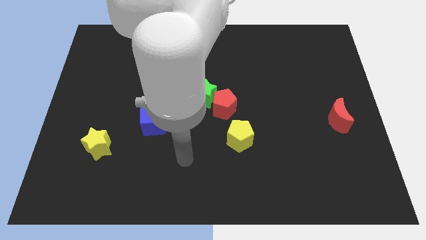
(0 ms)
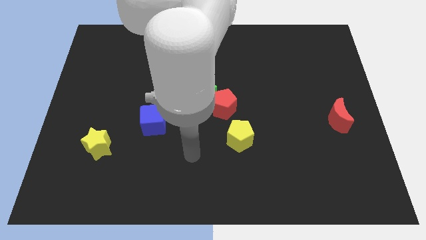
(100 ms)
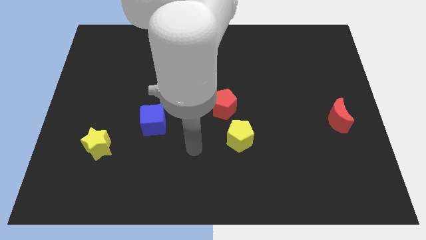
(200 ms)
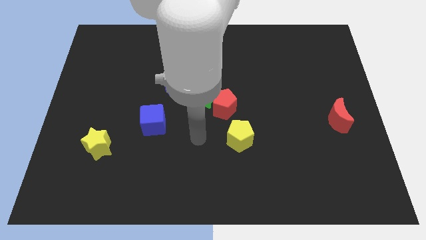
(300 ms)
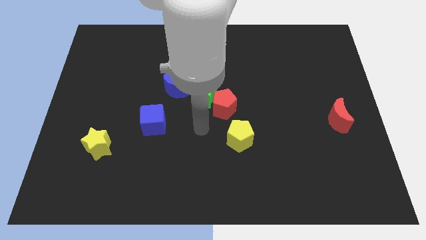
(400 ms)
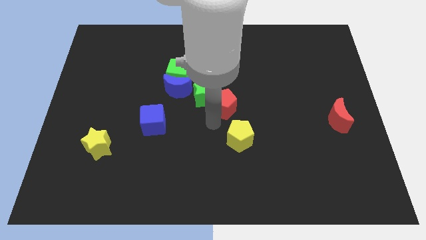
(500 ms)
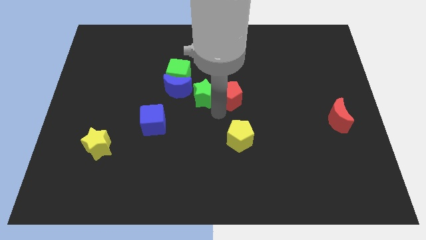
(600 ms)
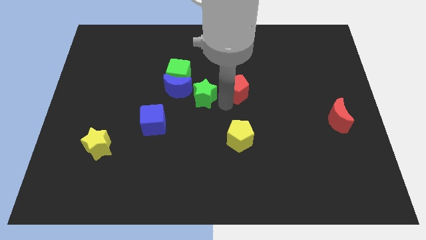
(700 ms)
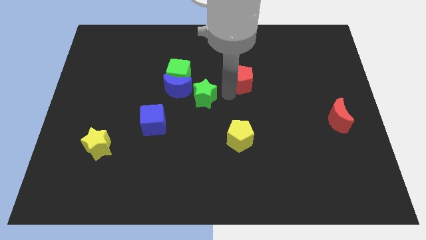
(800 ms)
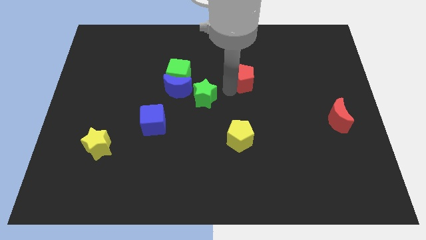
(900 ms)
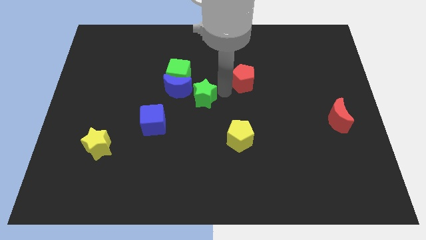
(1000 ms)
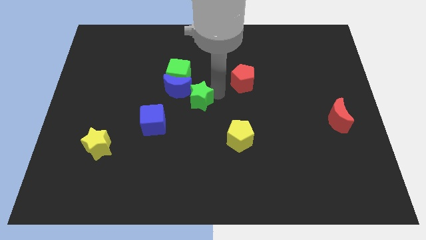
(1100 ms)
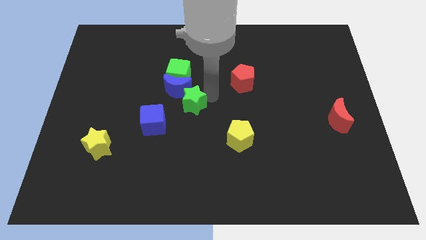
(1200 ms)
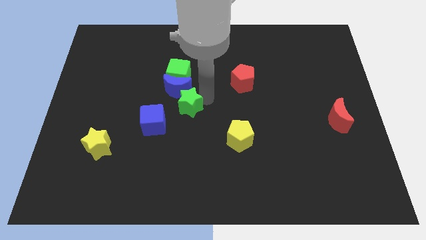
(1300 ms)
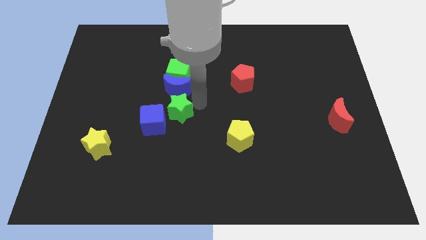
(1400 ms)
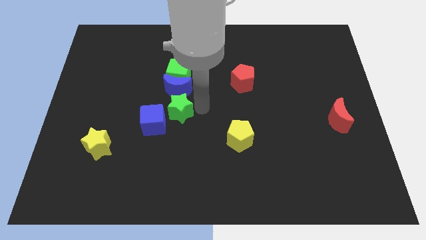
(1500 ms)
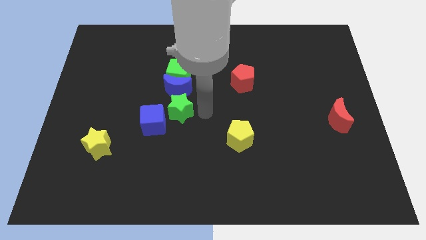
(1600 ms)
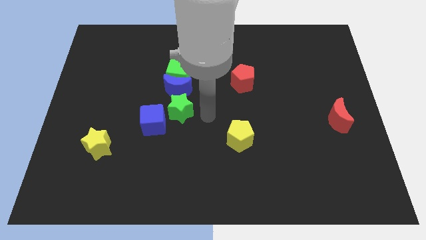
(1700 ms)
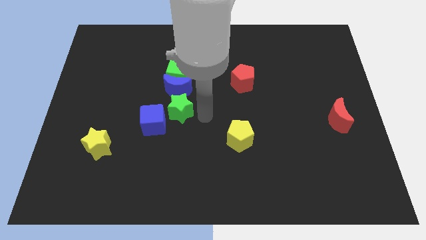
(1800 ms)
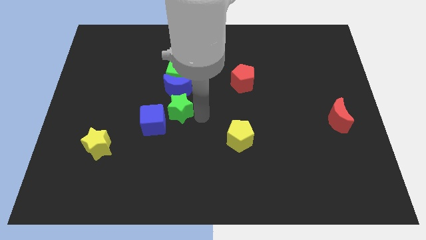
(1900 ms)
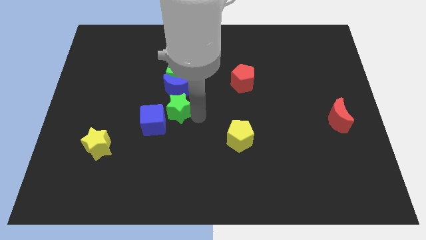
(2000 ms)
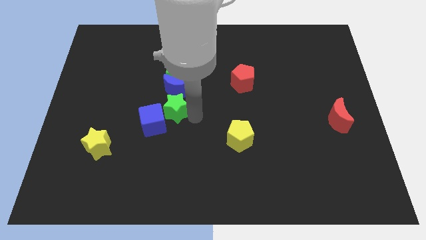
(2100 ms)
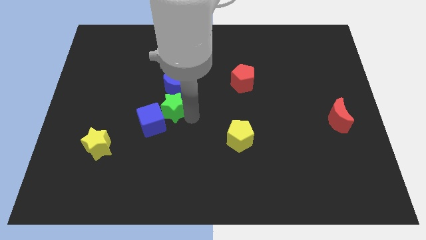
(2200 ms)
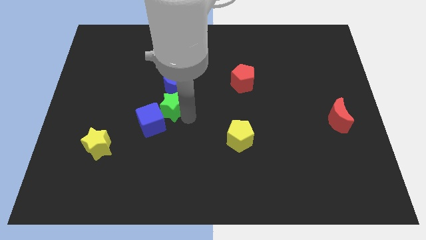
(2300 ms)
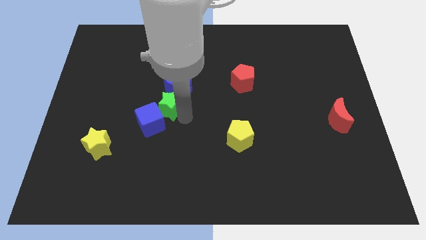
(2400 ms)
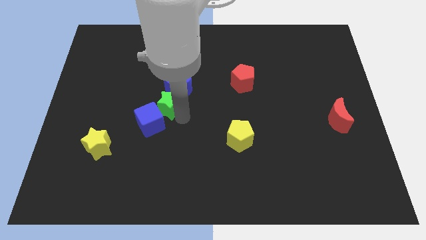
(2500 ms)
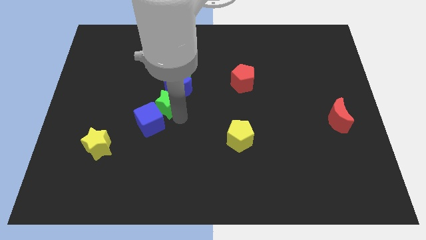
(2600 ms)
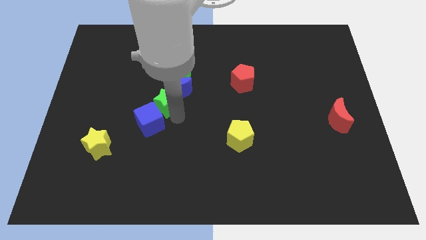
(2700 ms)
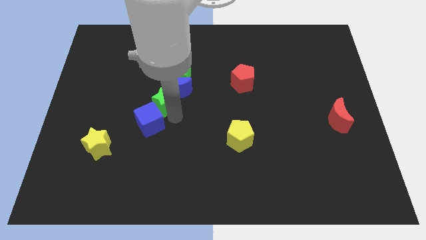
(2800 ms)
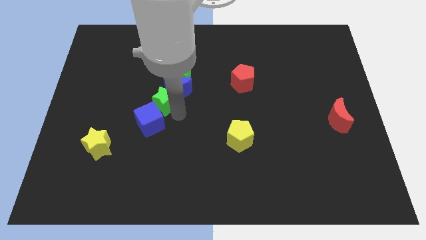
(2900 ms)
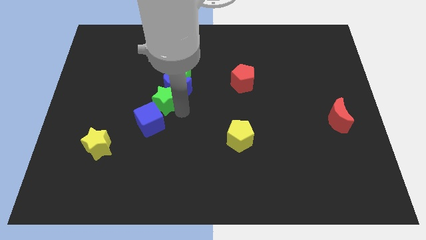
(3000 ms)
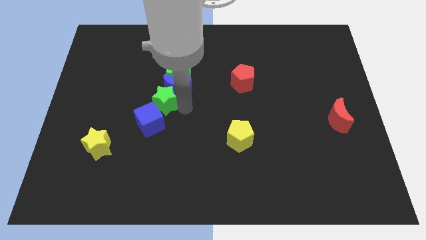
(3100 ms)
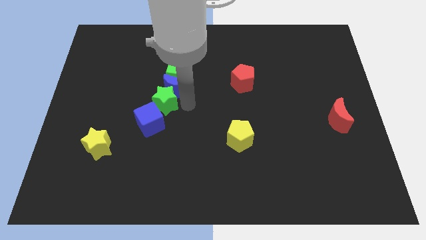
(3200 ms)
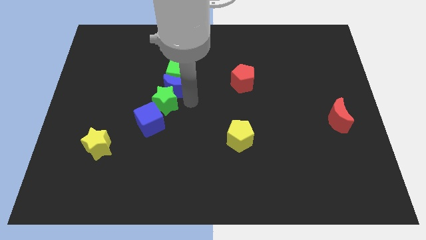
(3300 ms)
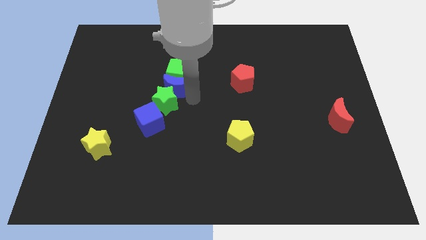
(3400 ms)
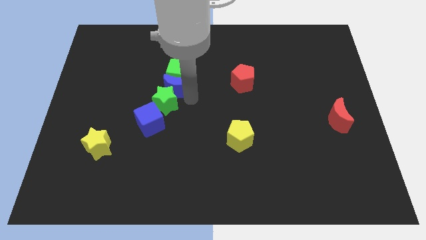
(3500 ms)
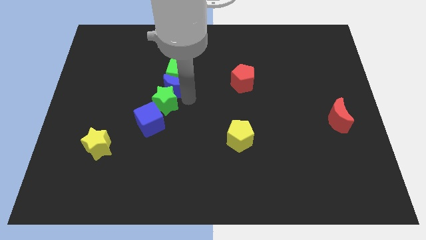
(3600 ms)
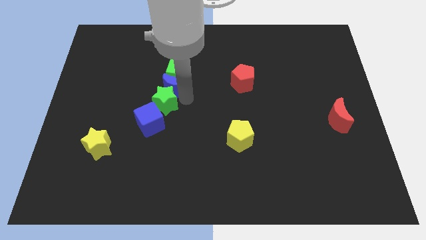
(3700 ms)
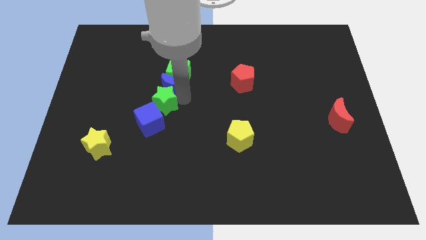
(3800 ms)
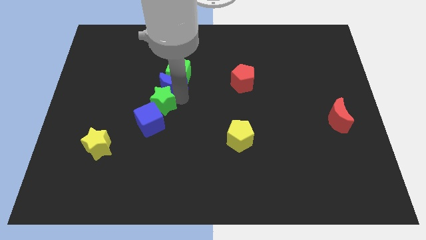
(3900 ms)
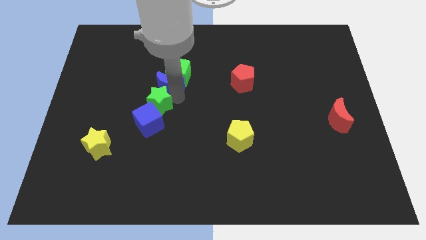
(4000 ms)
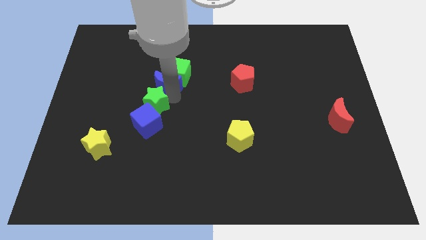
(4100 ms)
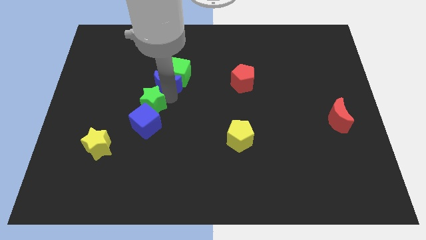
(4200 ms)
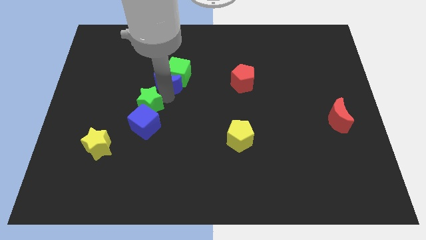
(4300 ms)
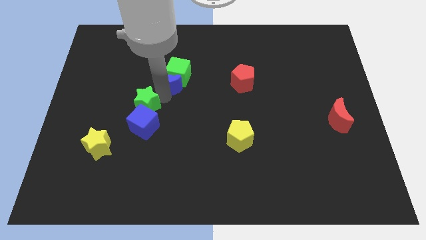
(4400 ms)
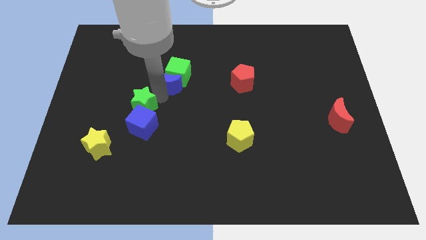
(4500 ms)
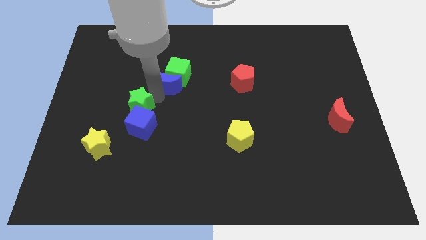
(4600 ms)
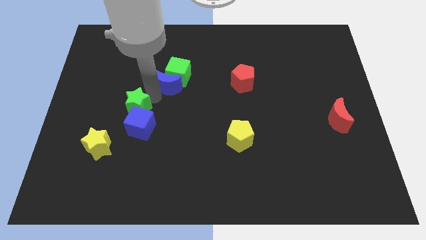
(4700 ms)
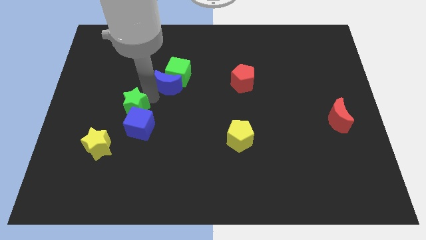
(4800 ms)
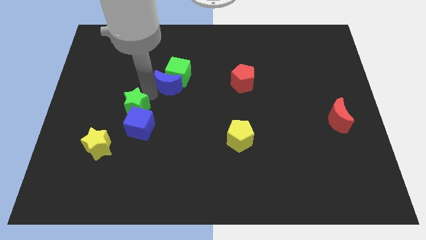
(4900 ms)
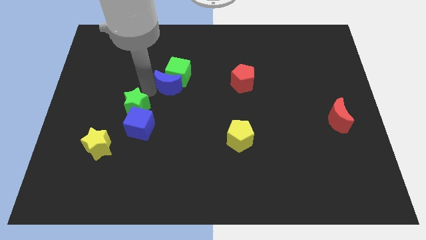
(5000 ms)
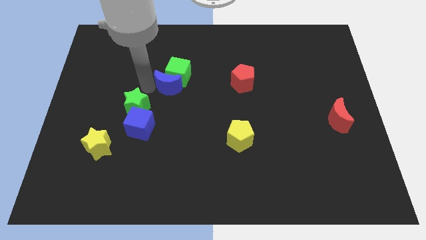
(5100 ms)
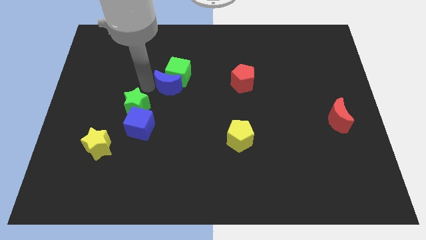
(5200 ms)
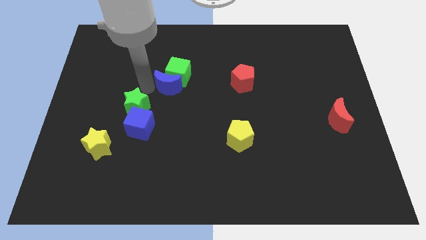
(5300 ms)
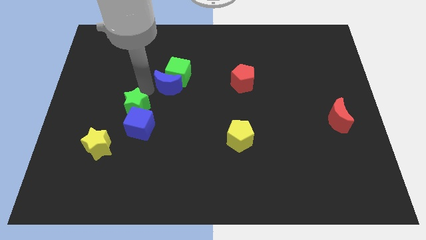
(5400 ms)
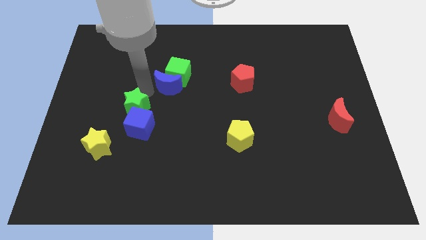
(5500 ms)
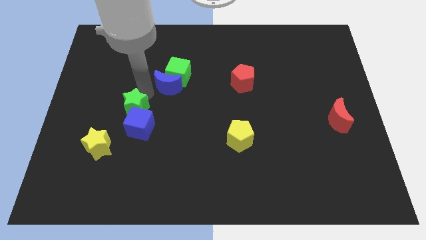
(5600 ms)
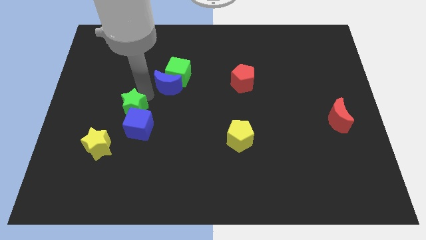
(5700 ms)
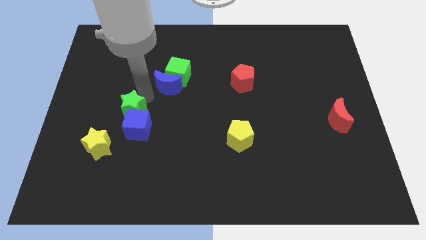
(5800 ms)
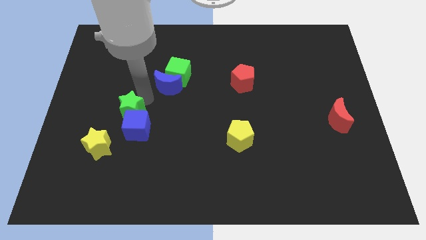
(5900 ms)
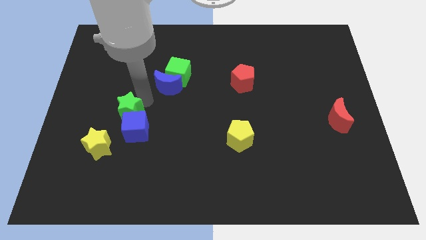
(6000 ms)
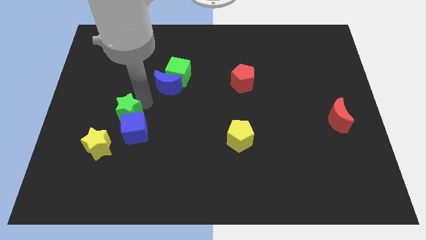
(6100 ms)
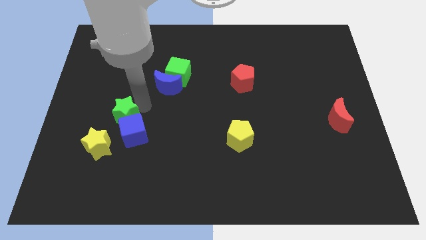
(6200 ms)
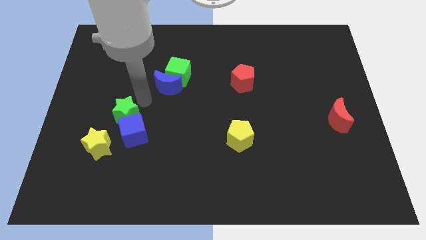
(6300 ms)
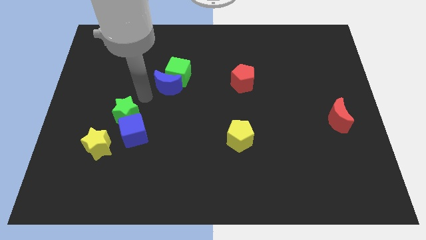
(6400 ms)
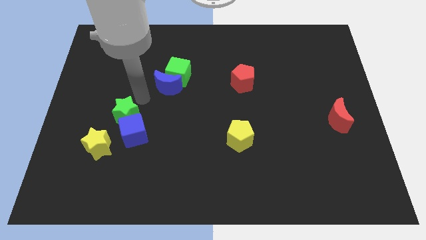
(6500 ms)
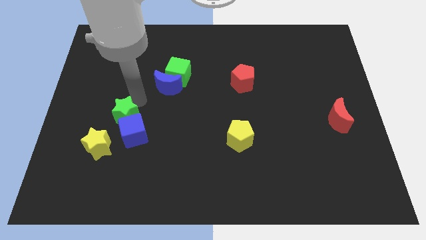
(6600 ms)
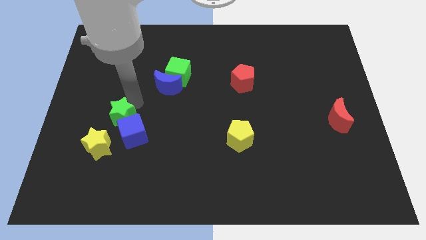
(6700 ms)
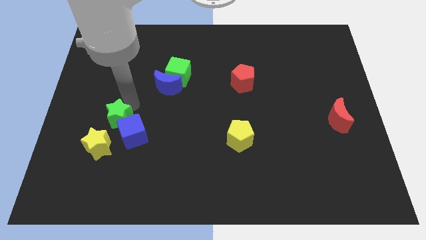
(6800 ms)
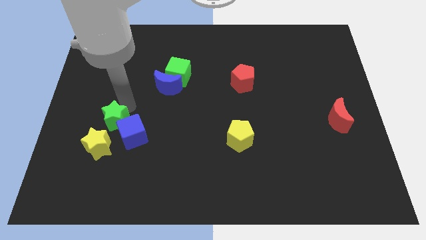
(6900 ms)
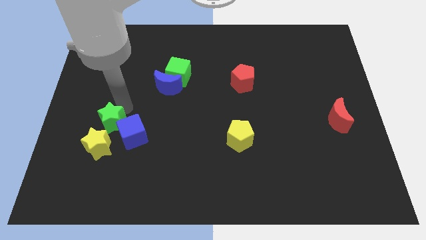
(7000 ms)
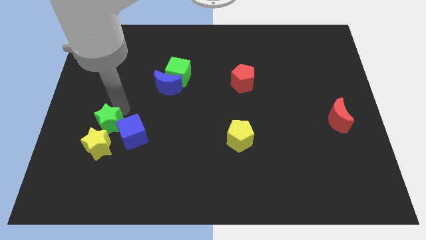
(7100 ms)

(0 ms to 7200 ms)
put the green star next to the yellow star

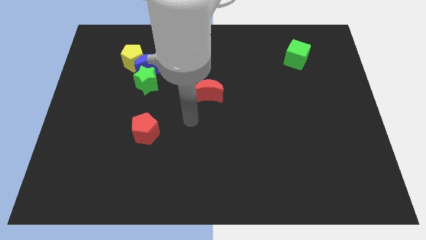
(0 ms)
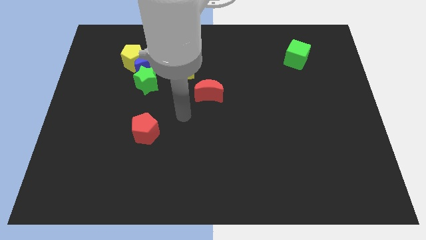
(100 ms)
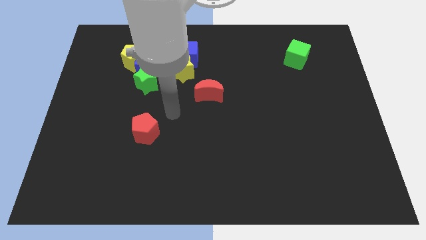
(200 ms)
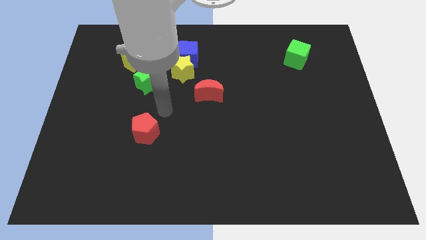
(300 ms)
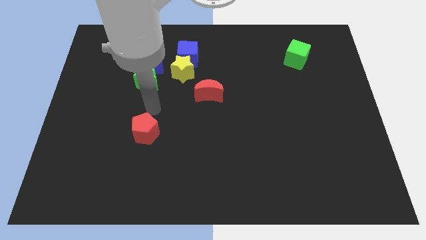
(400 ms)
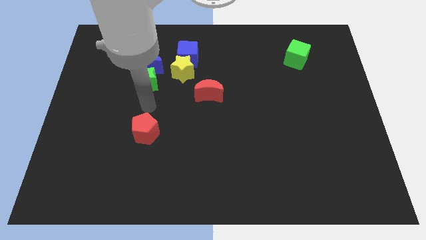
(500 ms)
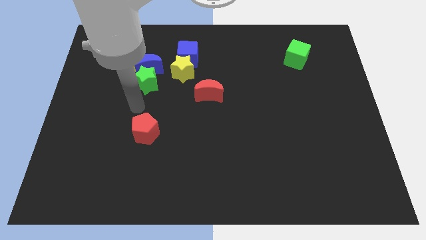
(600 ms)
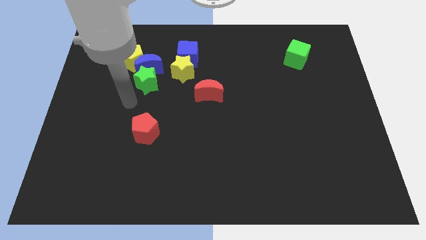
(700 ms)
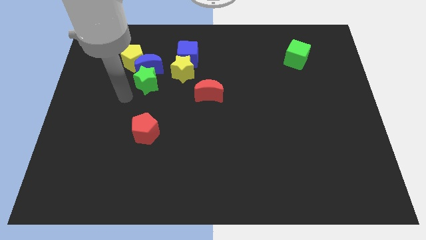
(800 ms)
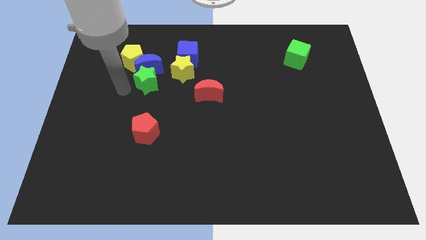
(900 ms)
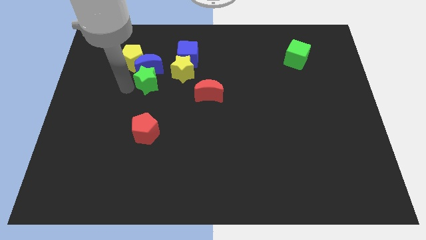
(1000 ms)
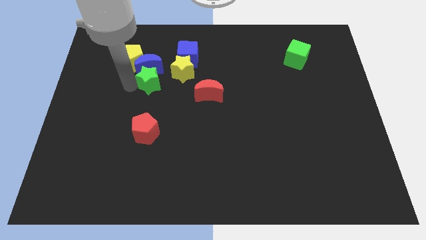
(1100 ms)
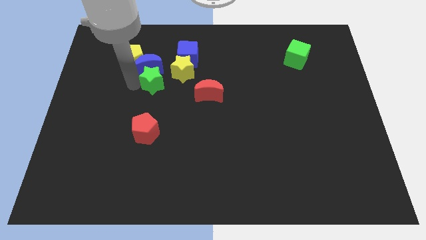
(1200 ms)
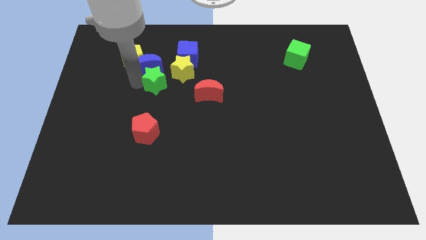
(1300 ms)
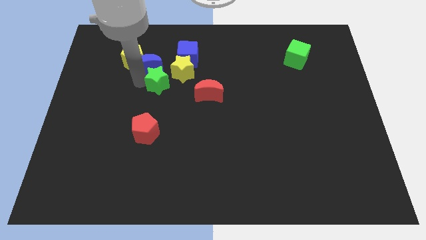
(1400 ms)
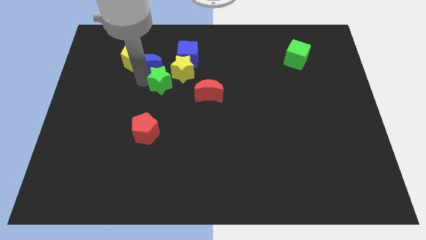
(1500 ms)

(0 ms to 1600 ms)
slide the green star towards the yellow star
